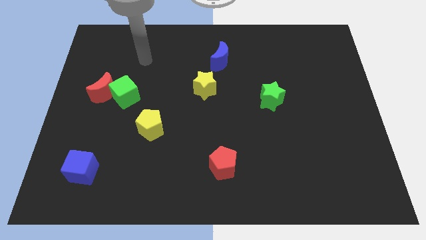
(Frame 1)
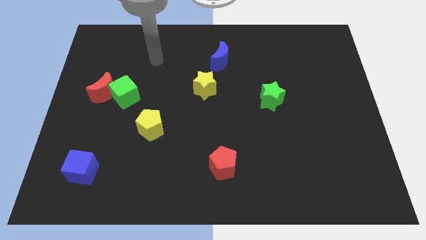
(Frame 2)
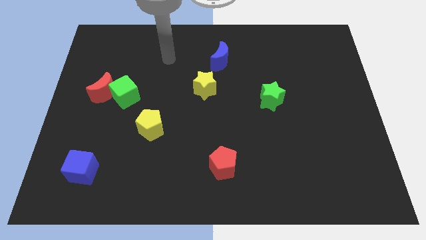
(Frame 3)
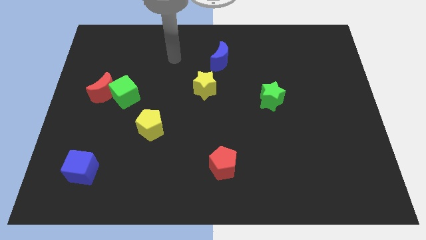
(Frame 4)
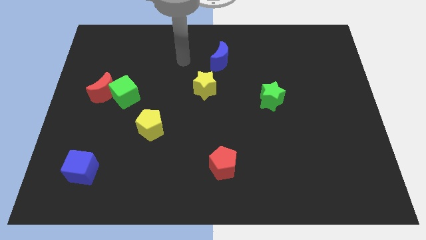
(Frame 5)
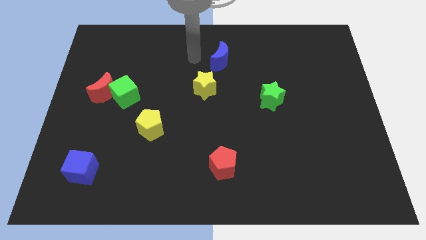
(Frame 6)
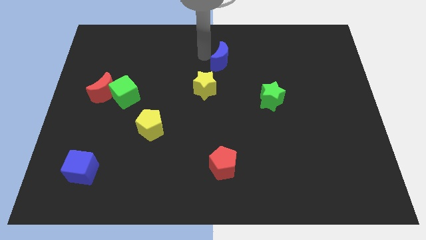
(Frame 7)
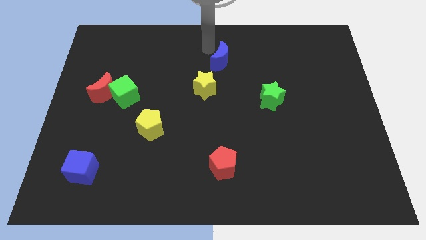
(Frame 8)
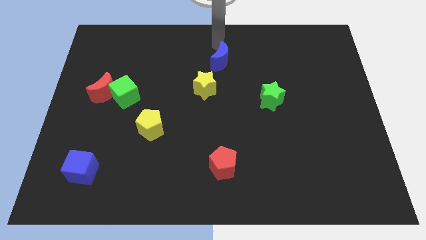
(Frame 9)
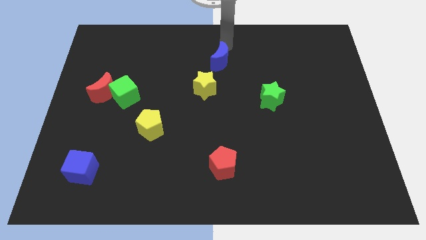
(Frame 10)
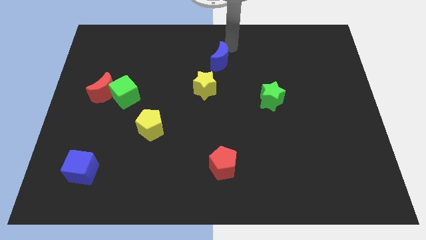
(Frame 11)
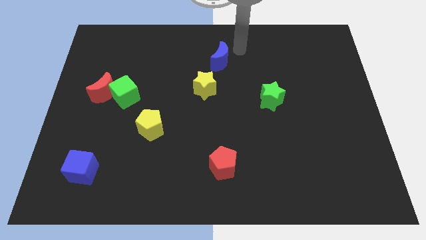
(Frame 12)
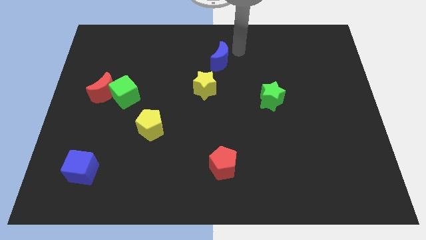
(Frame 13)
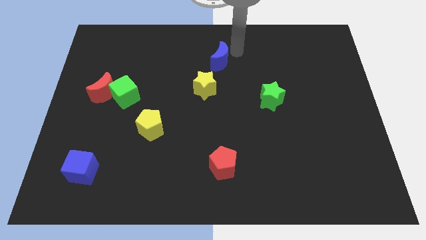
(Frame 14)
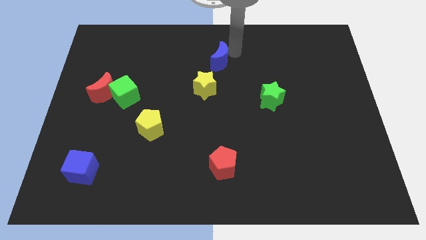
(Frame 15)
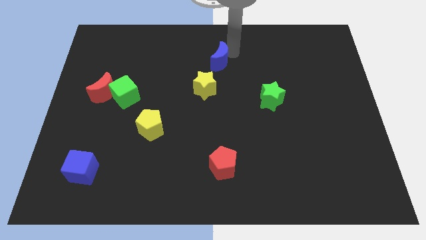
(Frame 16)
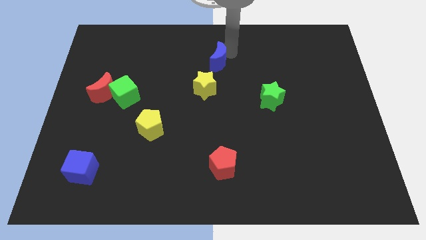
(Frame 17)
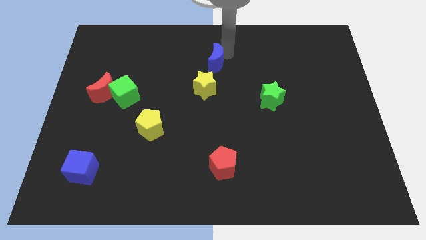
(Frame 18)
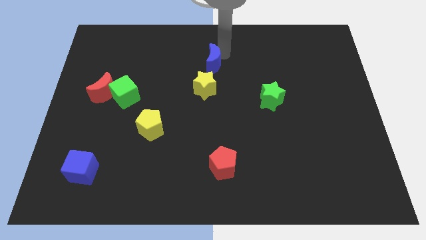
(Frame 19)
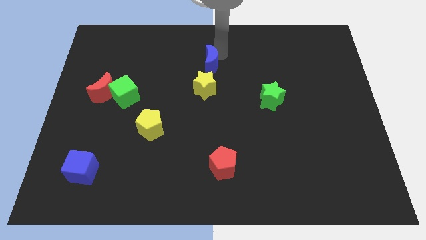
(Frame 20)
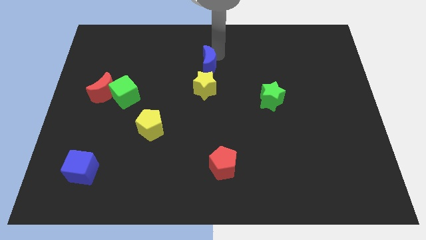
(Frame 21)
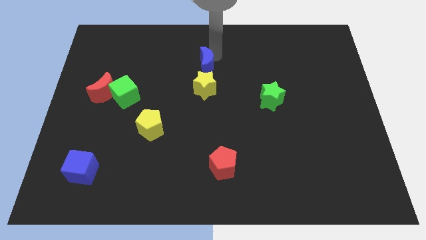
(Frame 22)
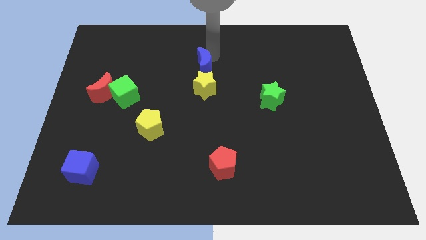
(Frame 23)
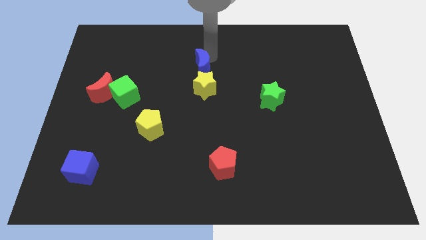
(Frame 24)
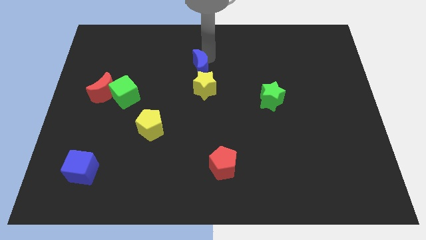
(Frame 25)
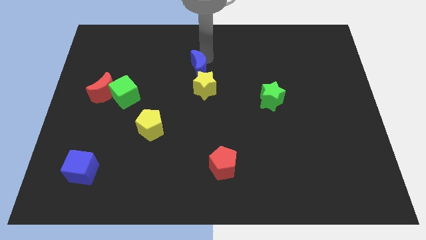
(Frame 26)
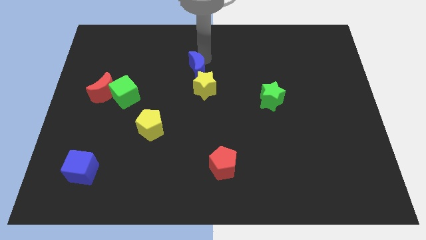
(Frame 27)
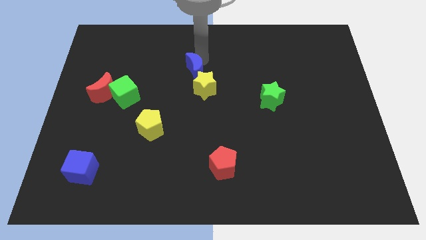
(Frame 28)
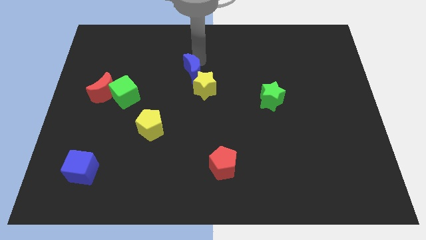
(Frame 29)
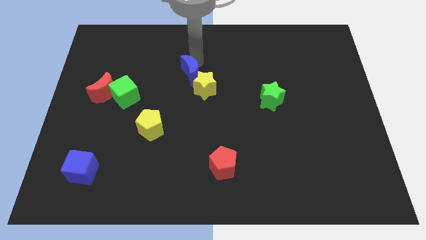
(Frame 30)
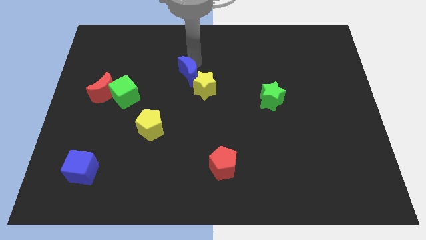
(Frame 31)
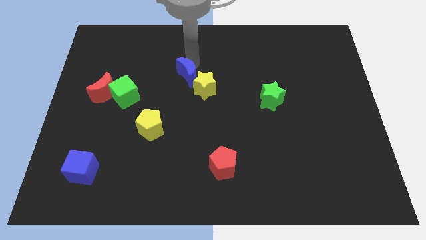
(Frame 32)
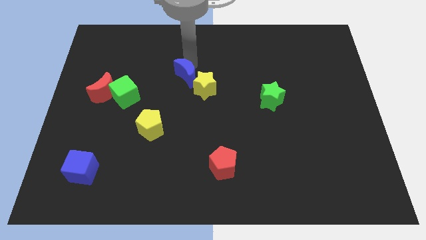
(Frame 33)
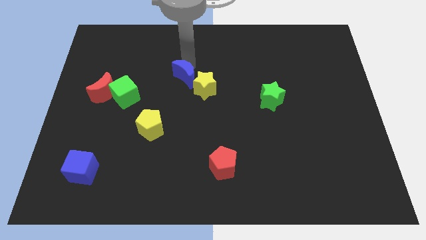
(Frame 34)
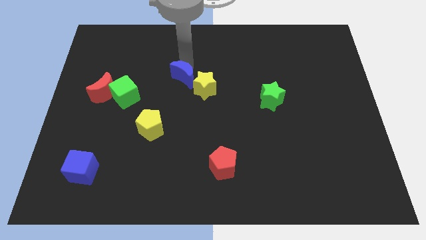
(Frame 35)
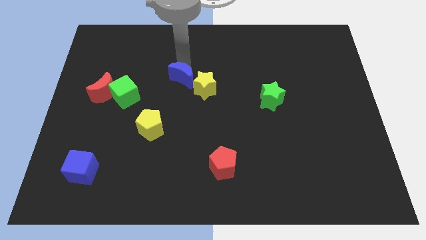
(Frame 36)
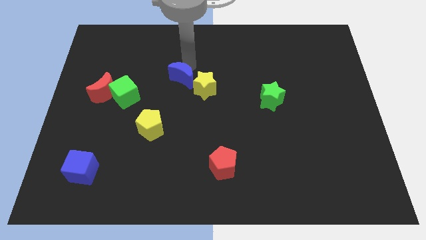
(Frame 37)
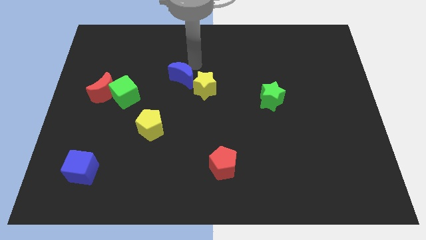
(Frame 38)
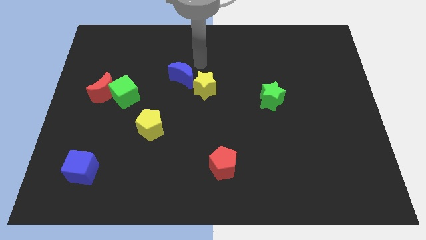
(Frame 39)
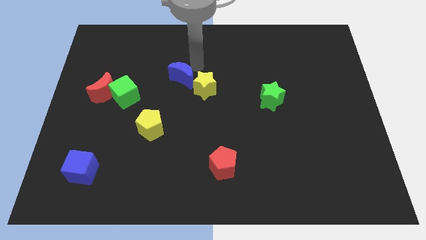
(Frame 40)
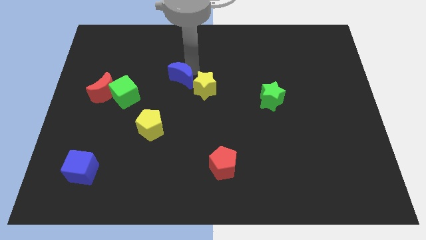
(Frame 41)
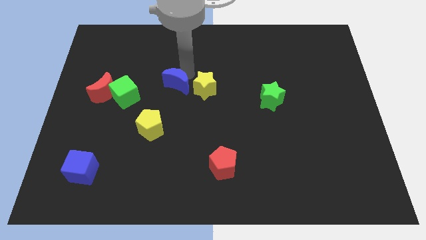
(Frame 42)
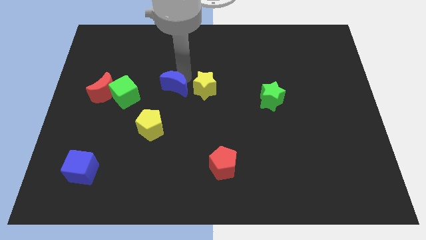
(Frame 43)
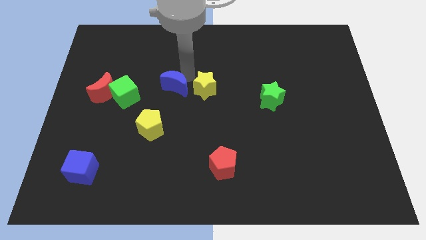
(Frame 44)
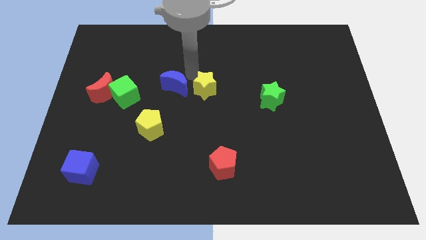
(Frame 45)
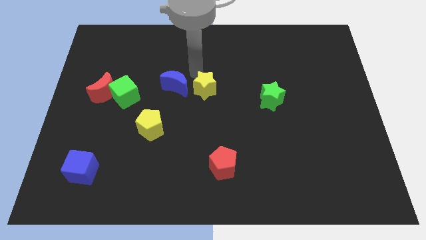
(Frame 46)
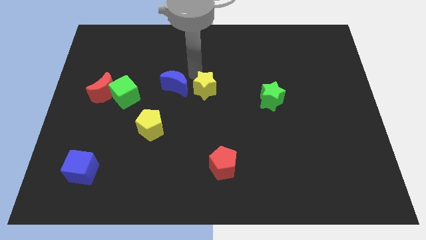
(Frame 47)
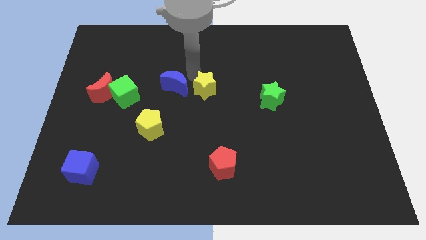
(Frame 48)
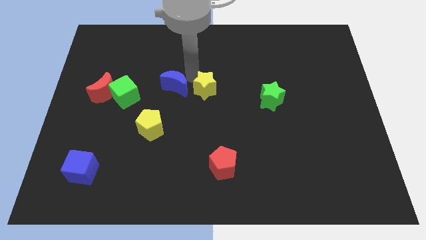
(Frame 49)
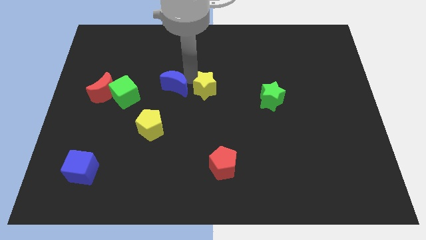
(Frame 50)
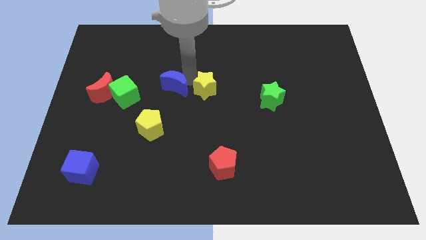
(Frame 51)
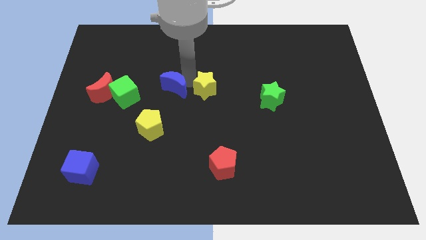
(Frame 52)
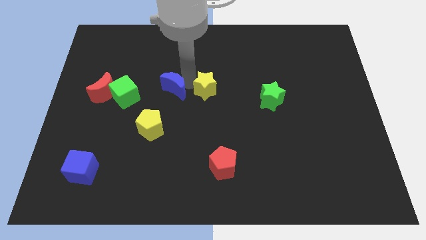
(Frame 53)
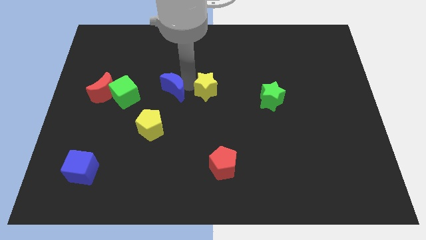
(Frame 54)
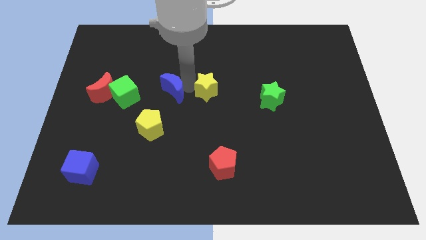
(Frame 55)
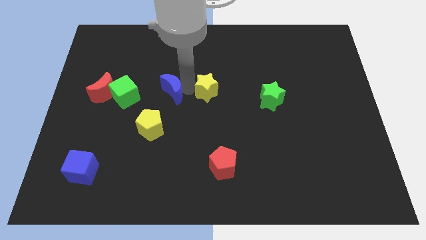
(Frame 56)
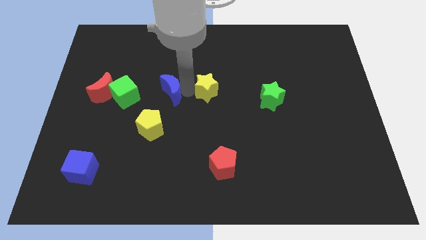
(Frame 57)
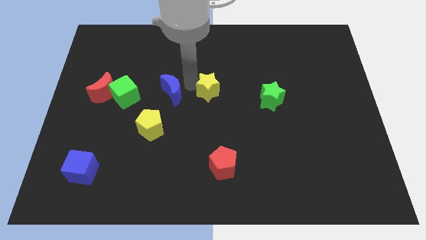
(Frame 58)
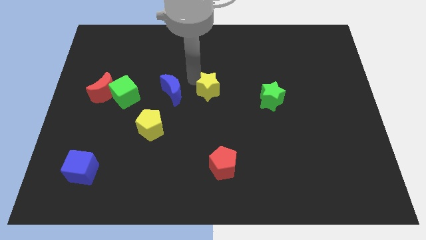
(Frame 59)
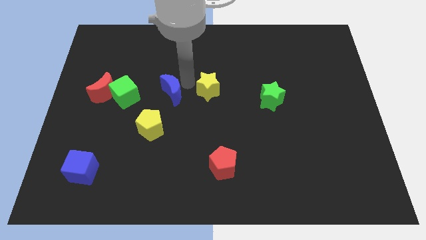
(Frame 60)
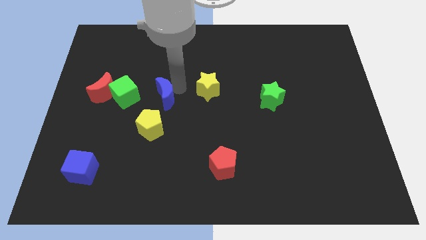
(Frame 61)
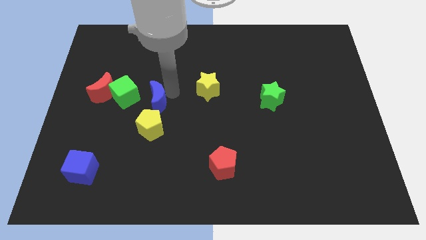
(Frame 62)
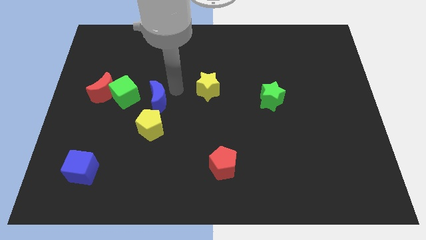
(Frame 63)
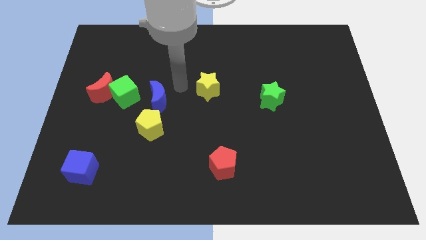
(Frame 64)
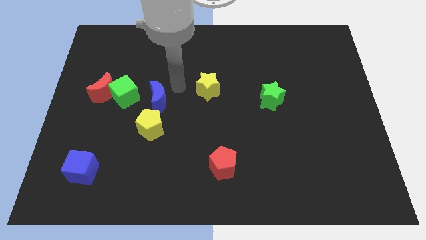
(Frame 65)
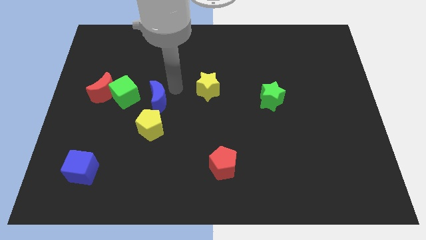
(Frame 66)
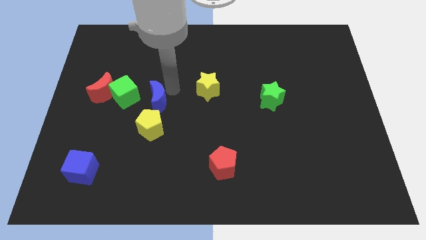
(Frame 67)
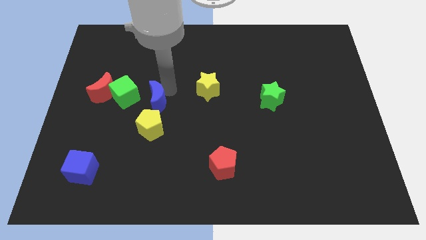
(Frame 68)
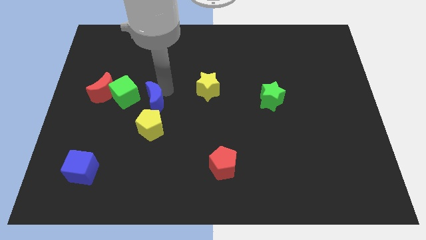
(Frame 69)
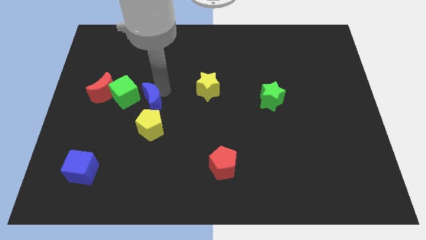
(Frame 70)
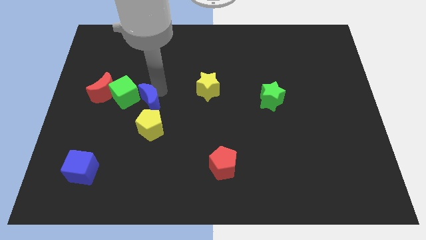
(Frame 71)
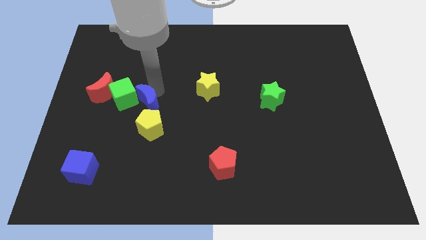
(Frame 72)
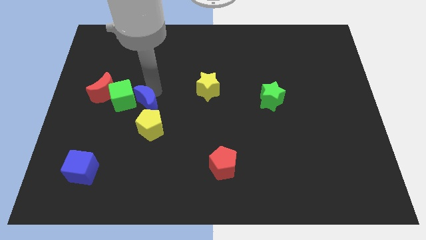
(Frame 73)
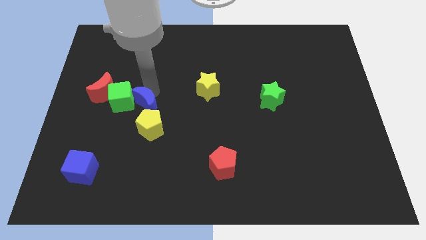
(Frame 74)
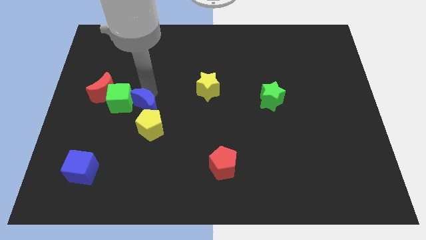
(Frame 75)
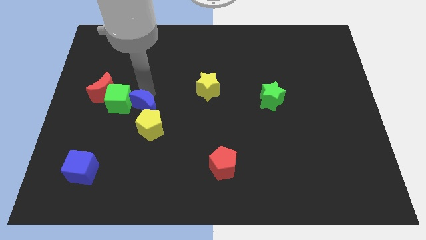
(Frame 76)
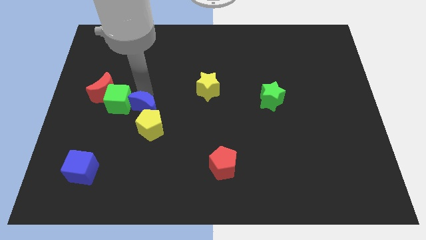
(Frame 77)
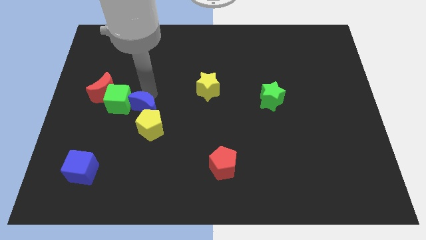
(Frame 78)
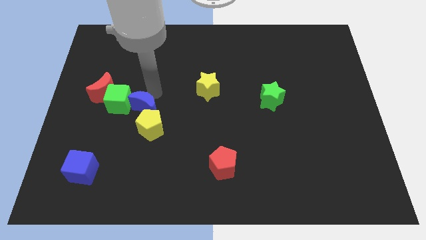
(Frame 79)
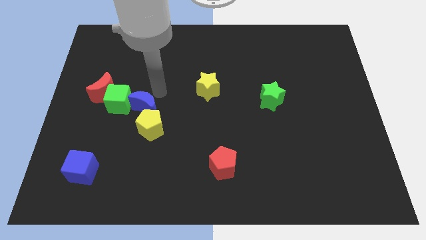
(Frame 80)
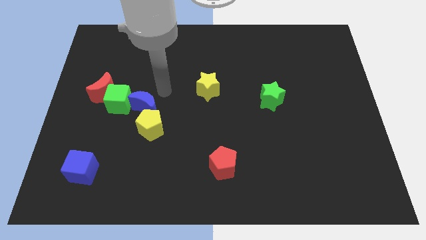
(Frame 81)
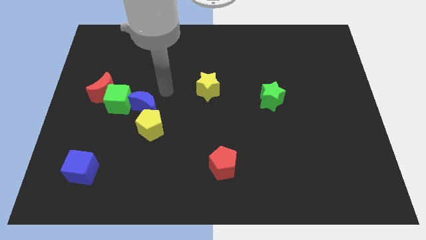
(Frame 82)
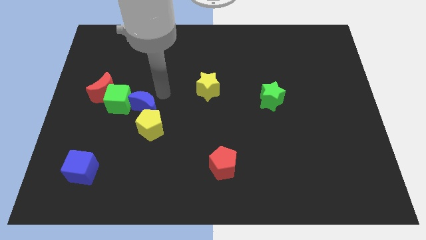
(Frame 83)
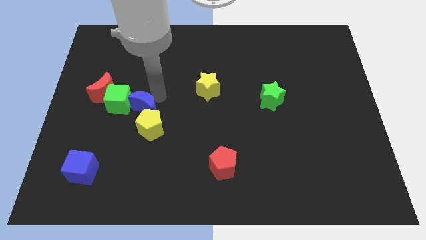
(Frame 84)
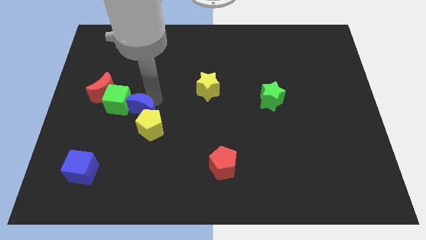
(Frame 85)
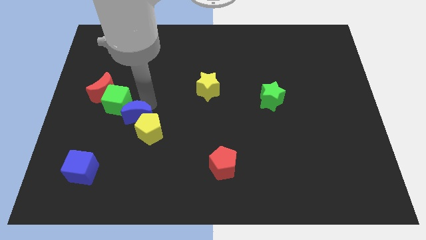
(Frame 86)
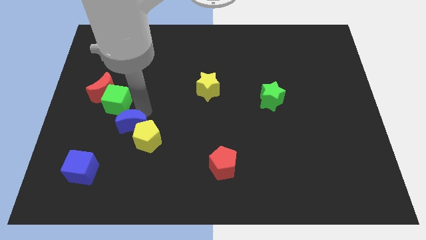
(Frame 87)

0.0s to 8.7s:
put the blue moon below the green cube
